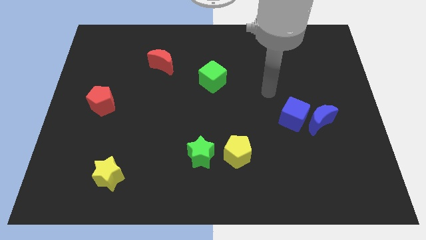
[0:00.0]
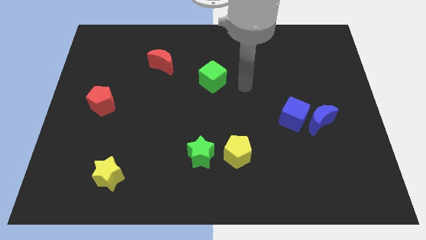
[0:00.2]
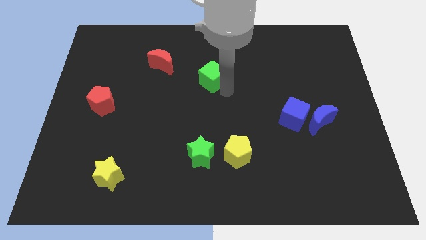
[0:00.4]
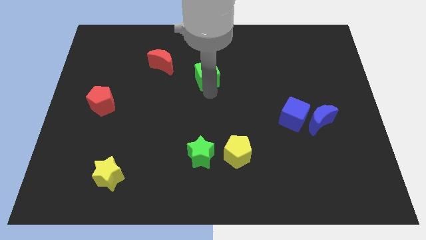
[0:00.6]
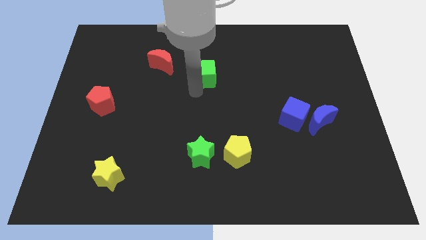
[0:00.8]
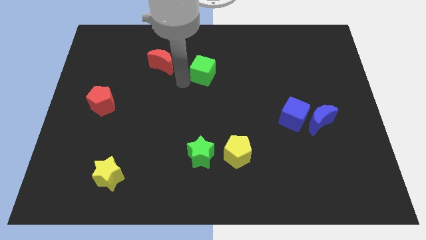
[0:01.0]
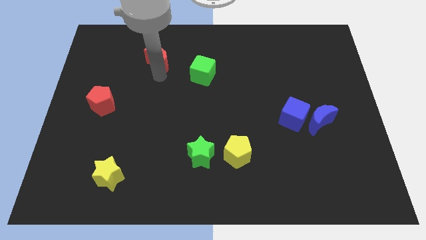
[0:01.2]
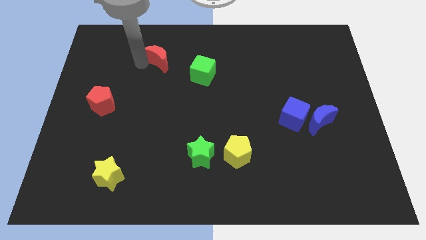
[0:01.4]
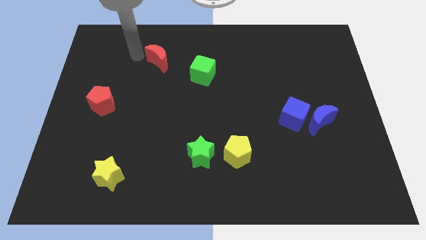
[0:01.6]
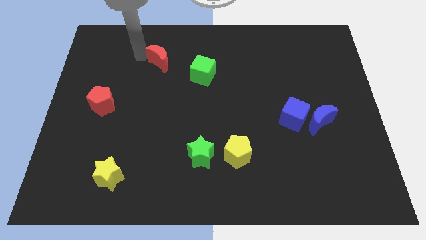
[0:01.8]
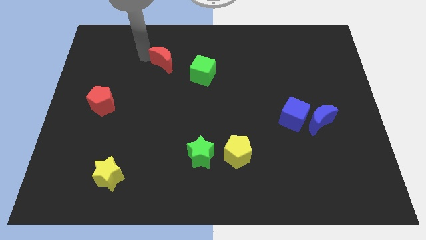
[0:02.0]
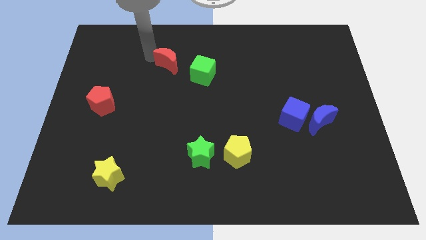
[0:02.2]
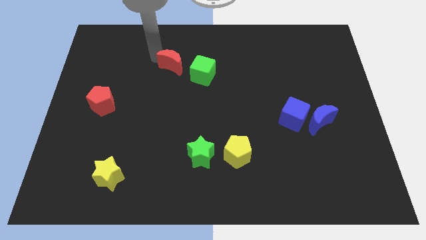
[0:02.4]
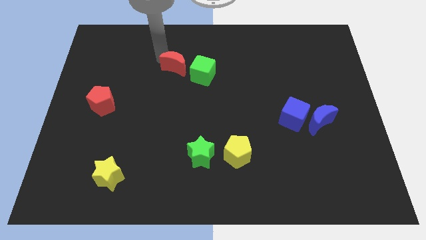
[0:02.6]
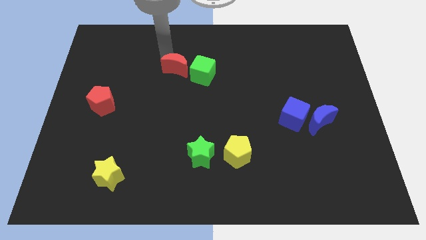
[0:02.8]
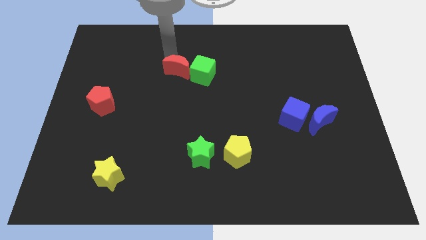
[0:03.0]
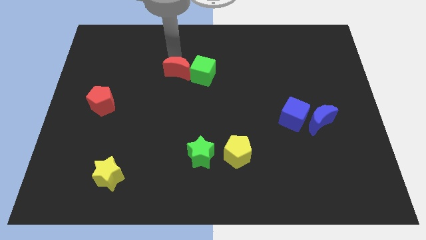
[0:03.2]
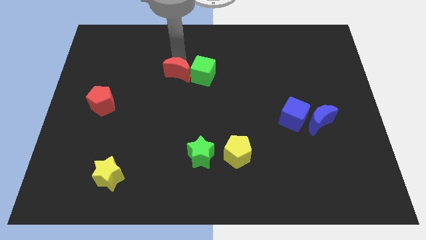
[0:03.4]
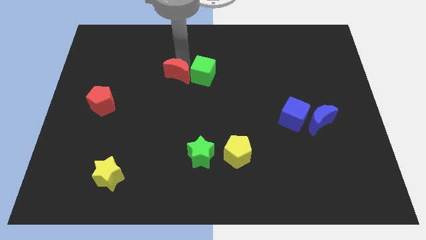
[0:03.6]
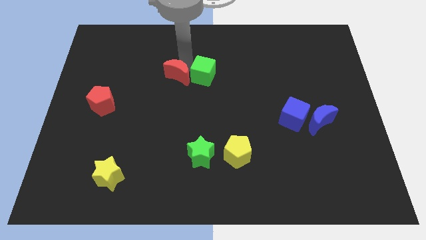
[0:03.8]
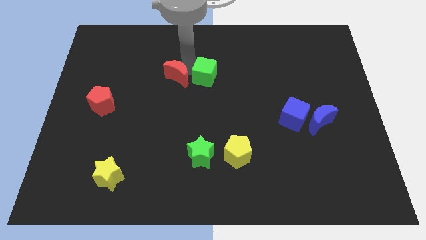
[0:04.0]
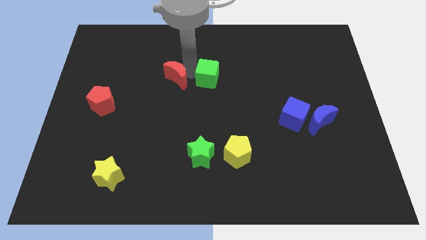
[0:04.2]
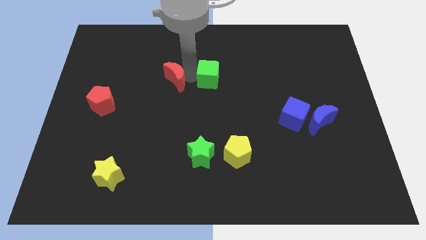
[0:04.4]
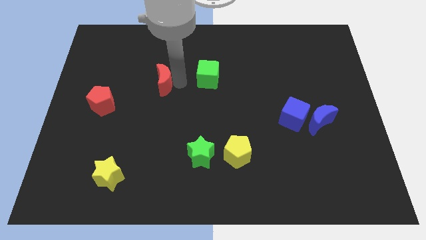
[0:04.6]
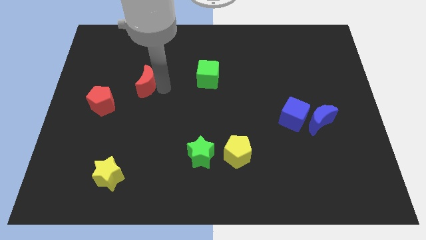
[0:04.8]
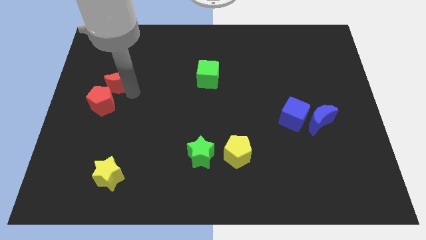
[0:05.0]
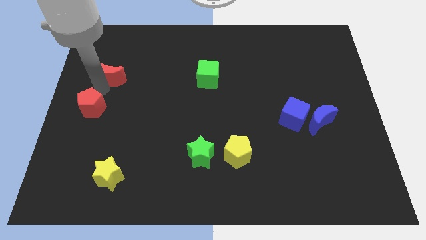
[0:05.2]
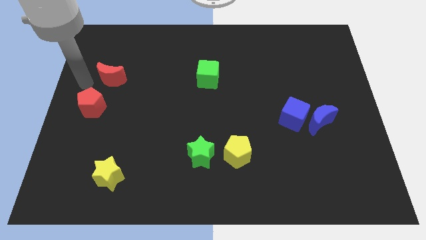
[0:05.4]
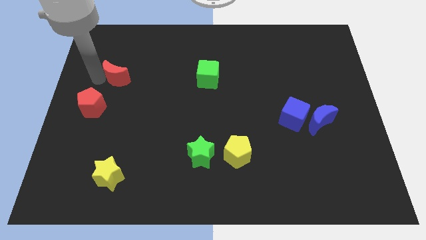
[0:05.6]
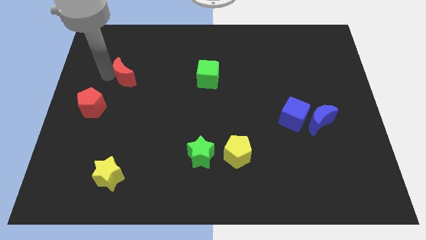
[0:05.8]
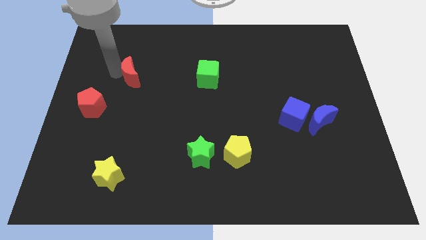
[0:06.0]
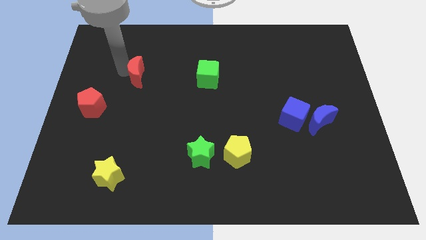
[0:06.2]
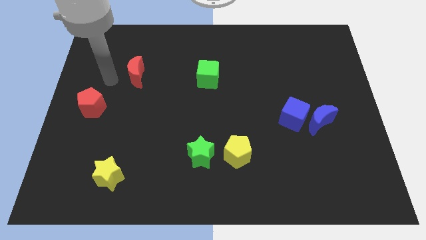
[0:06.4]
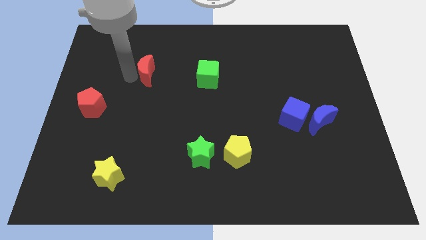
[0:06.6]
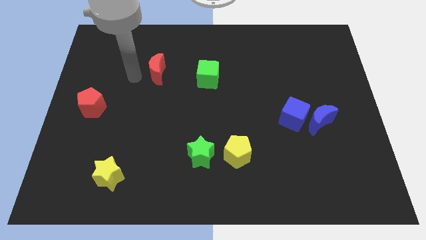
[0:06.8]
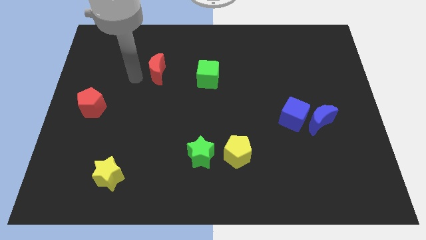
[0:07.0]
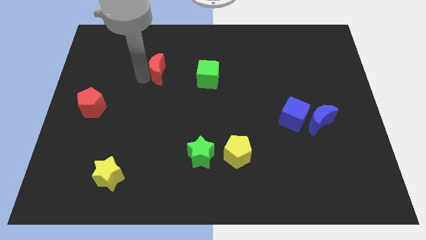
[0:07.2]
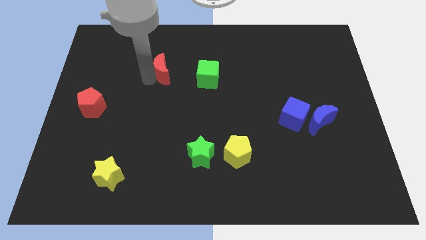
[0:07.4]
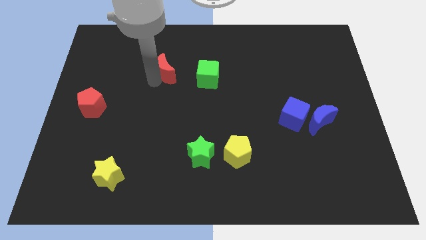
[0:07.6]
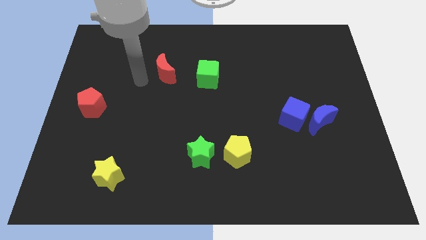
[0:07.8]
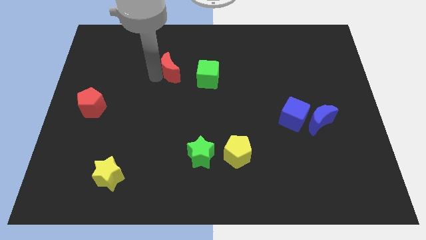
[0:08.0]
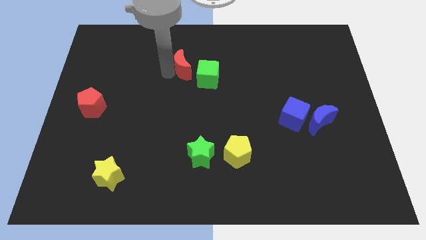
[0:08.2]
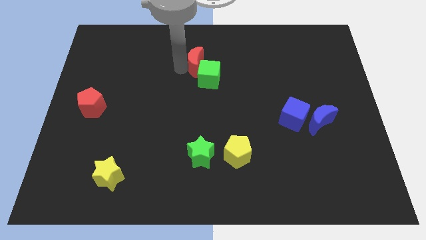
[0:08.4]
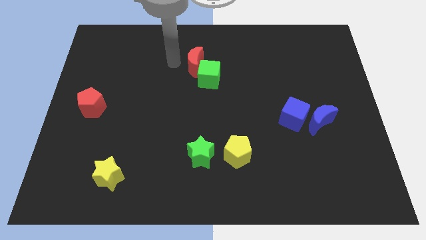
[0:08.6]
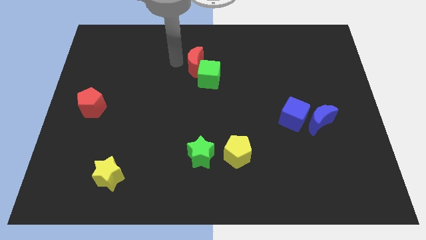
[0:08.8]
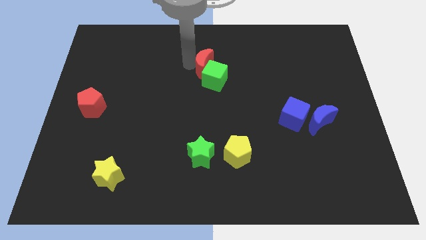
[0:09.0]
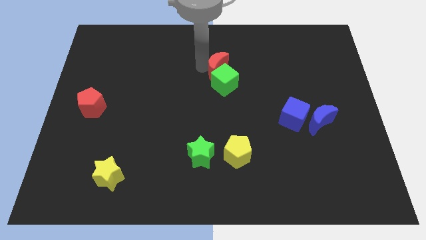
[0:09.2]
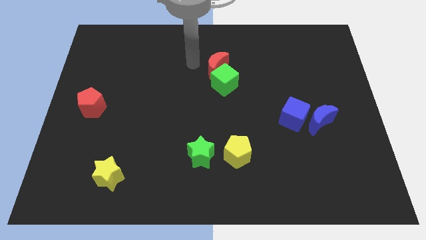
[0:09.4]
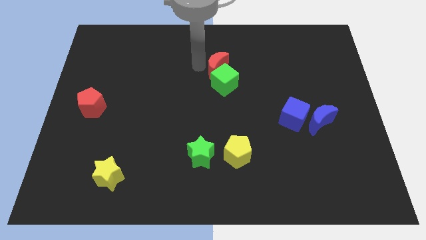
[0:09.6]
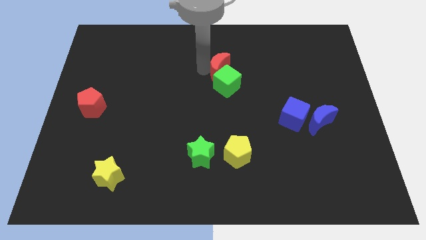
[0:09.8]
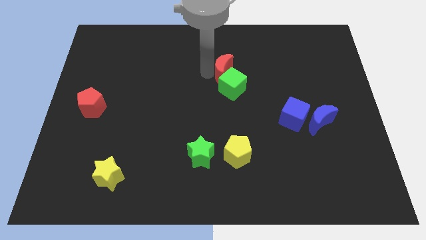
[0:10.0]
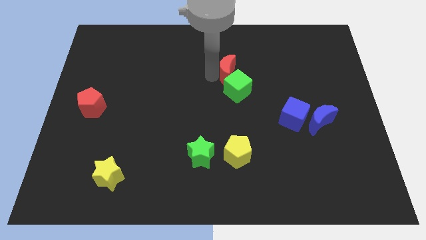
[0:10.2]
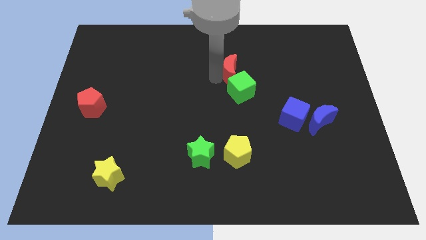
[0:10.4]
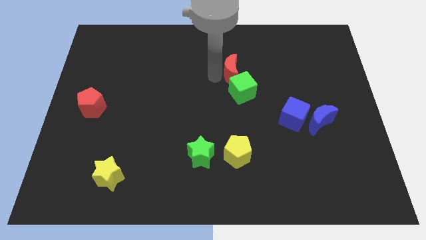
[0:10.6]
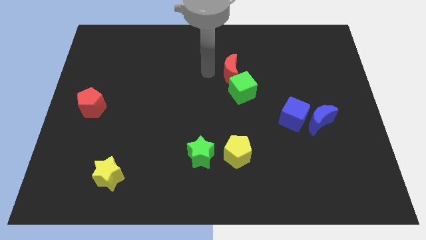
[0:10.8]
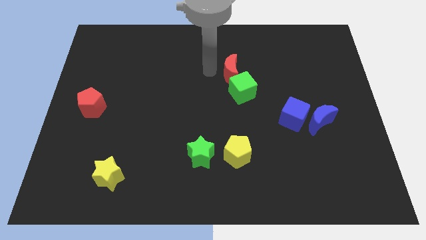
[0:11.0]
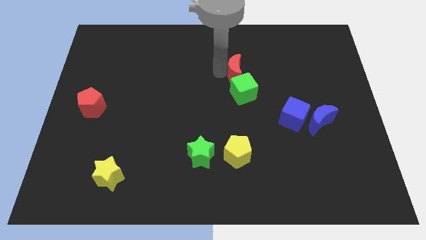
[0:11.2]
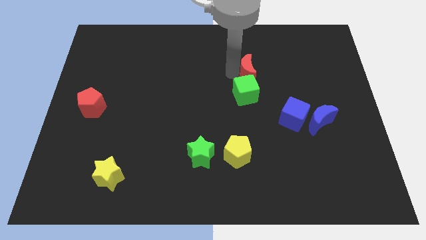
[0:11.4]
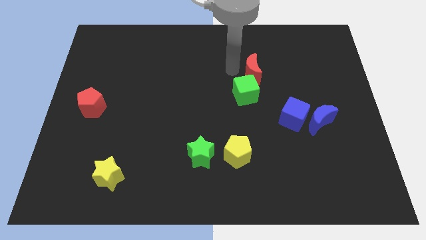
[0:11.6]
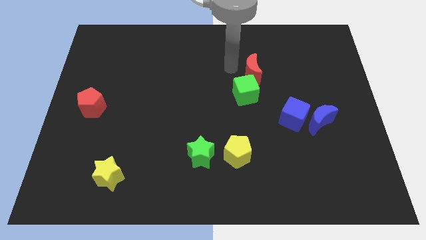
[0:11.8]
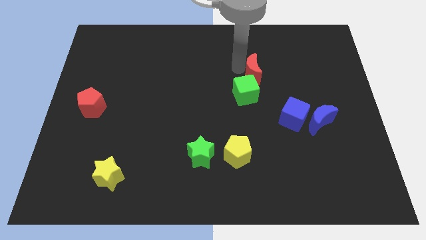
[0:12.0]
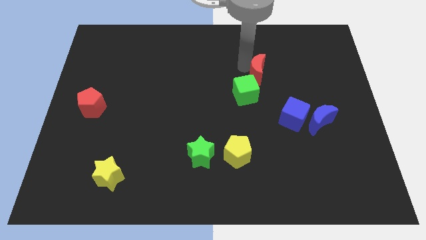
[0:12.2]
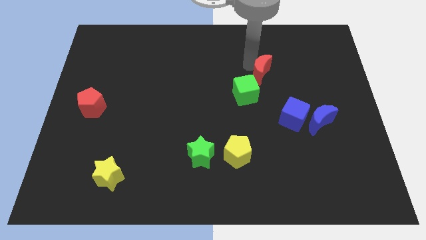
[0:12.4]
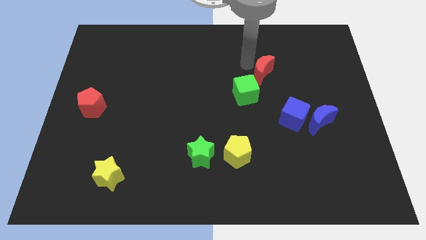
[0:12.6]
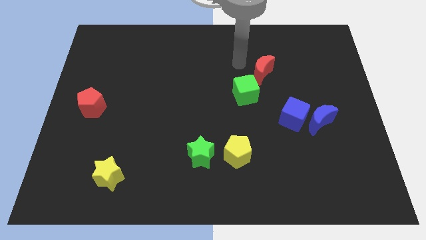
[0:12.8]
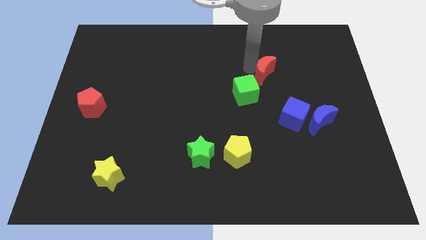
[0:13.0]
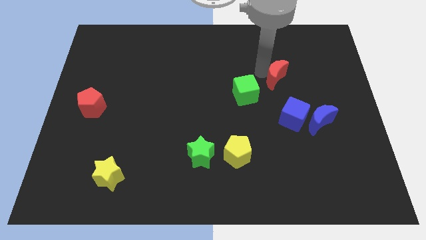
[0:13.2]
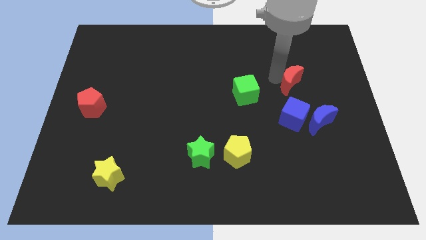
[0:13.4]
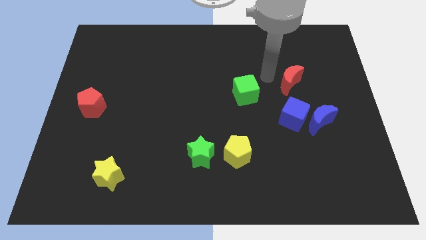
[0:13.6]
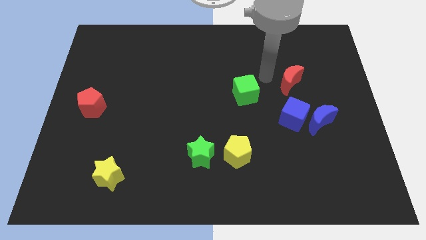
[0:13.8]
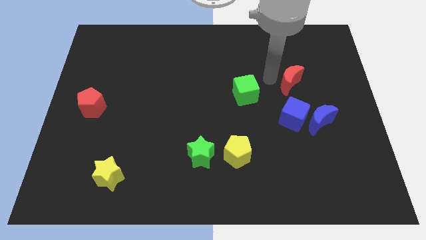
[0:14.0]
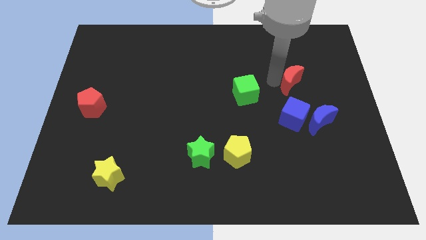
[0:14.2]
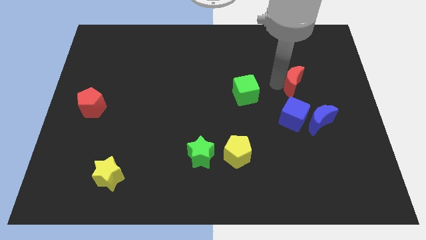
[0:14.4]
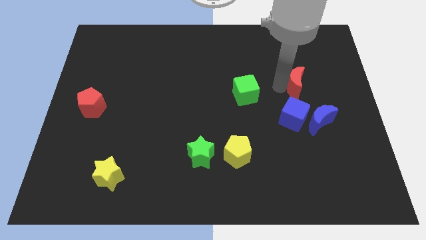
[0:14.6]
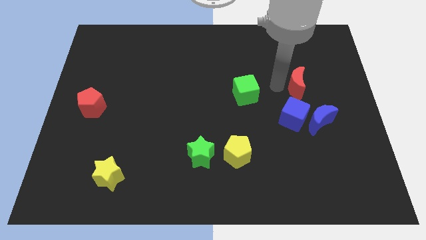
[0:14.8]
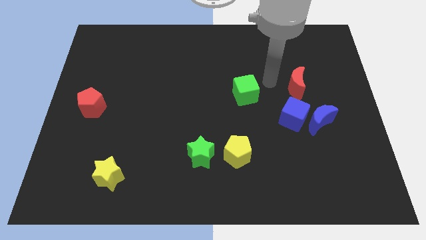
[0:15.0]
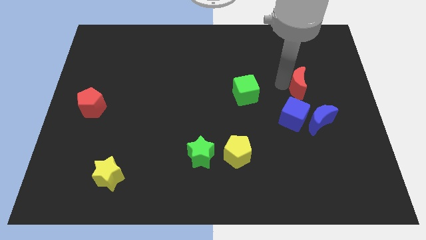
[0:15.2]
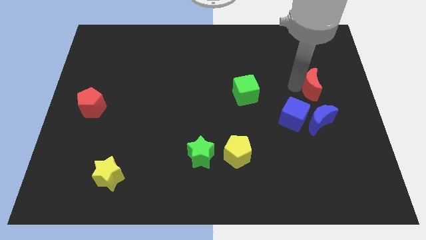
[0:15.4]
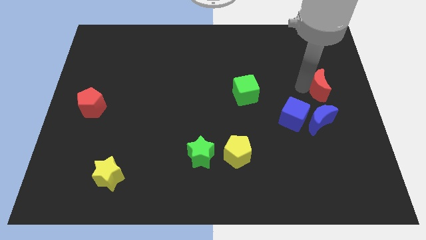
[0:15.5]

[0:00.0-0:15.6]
slide the red moon to the right side of the board
